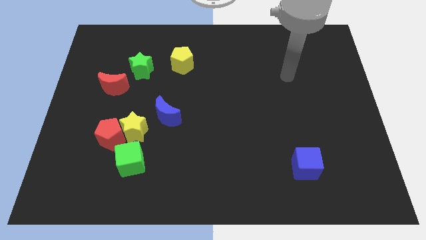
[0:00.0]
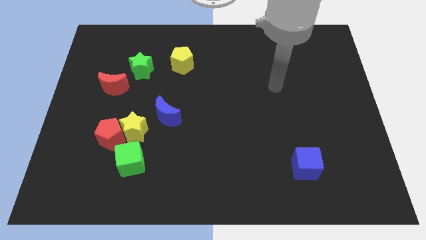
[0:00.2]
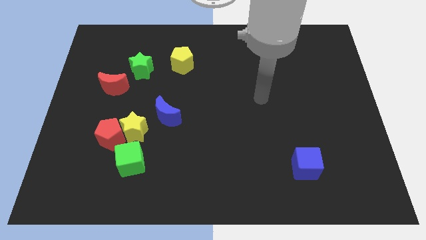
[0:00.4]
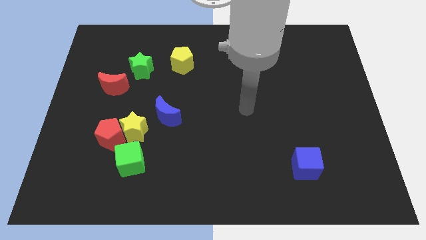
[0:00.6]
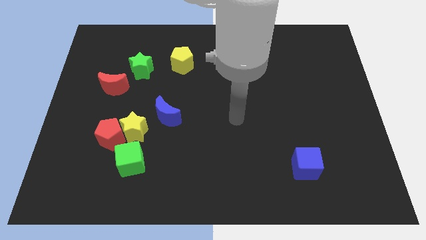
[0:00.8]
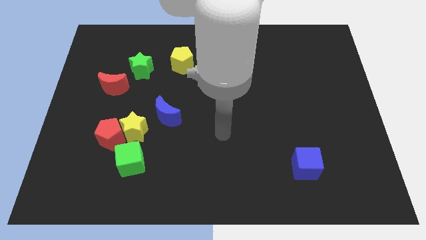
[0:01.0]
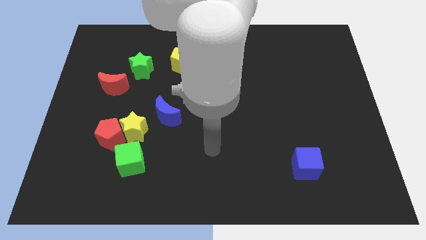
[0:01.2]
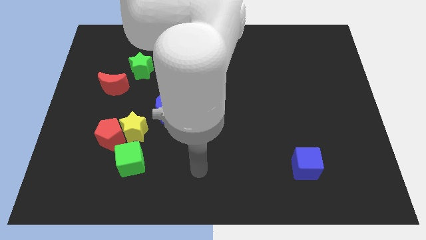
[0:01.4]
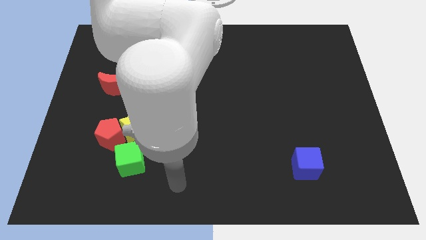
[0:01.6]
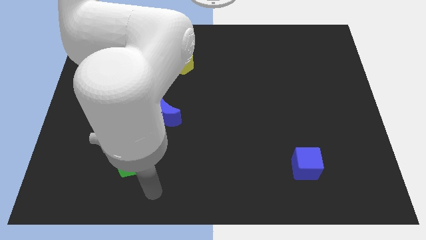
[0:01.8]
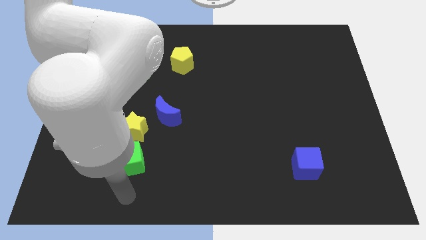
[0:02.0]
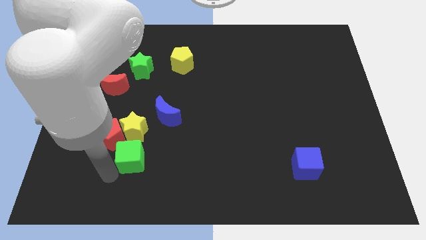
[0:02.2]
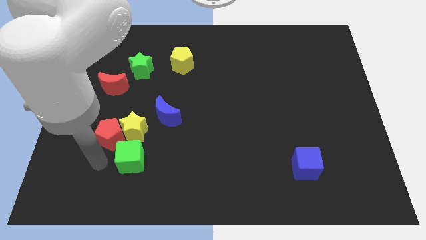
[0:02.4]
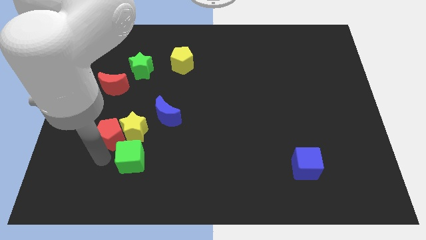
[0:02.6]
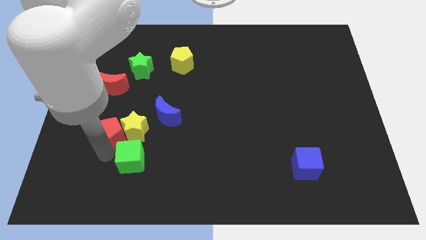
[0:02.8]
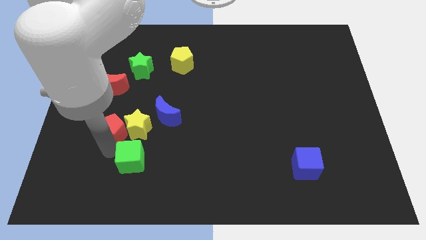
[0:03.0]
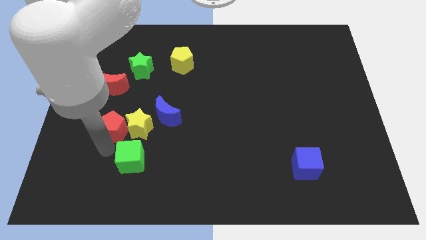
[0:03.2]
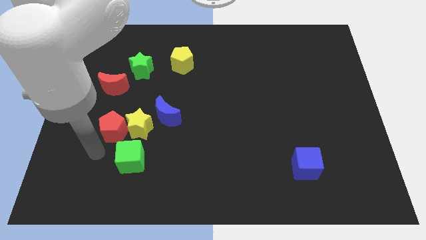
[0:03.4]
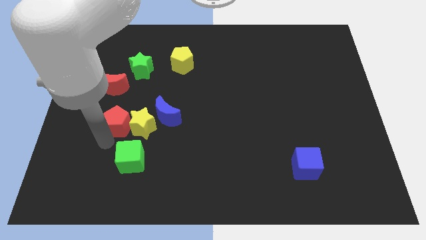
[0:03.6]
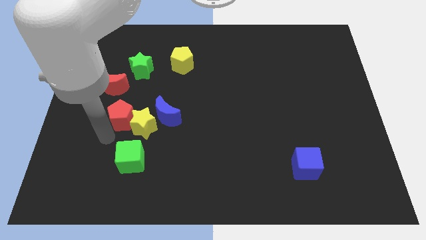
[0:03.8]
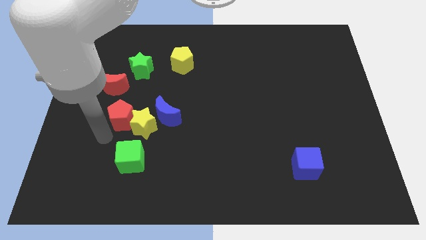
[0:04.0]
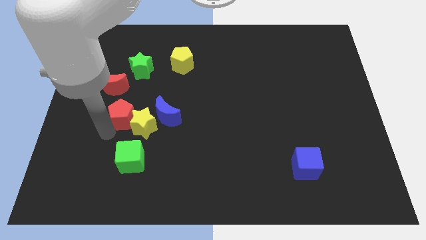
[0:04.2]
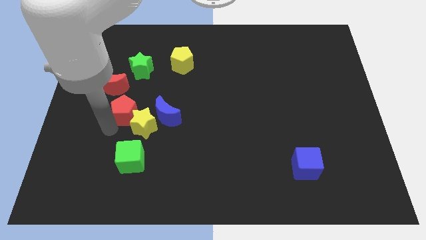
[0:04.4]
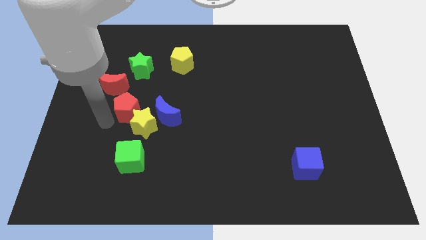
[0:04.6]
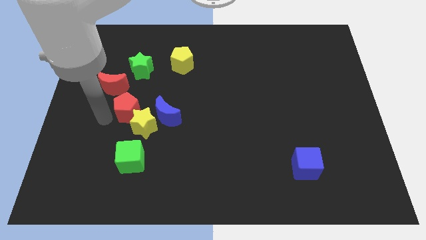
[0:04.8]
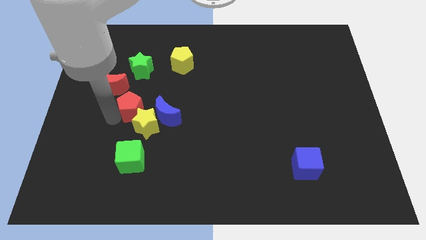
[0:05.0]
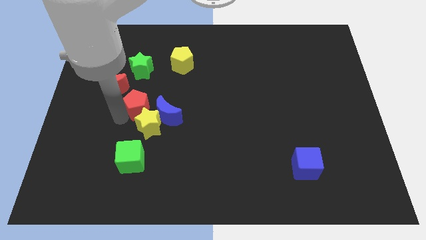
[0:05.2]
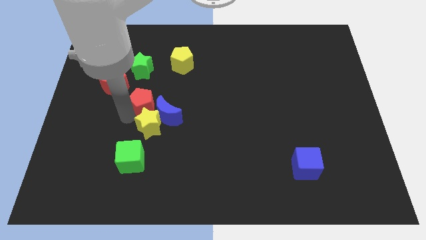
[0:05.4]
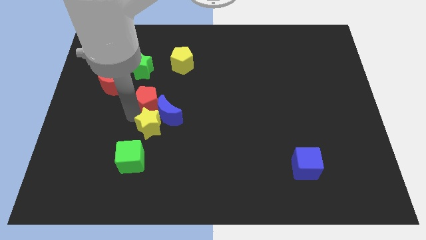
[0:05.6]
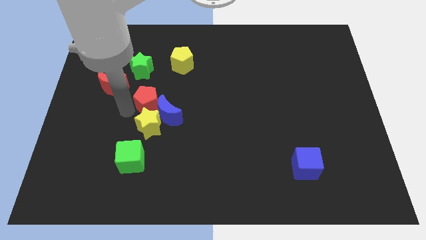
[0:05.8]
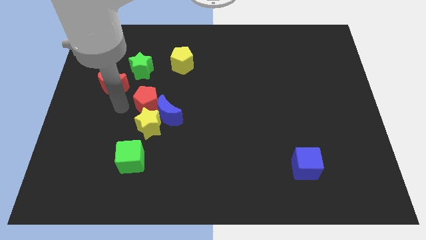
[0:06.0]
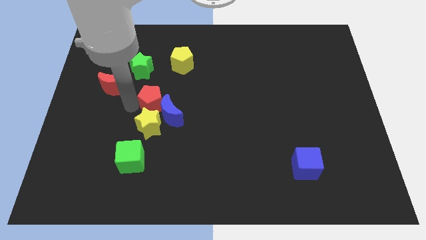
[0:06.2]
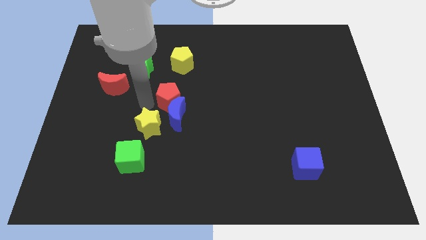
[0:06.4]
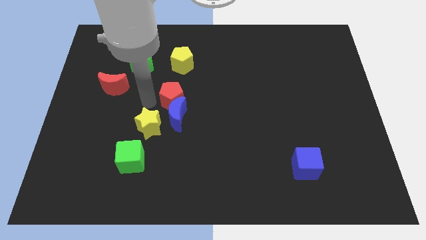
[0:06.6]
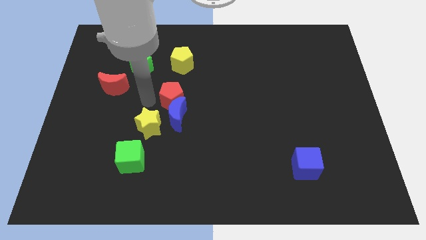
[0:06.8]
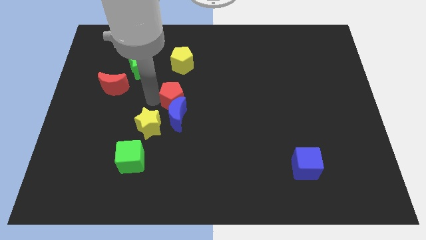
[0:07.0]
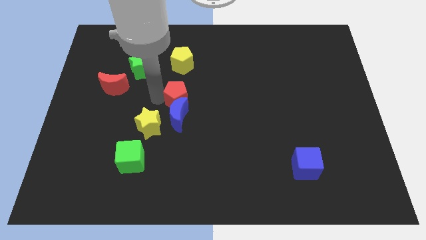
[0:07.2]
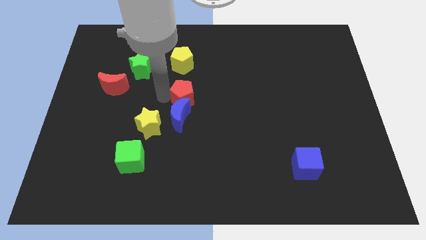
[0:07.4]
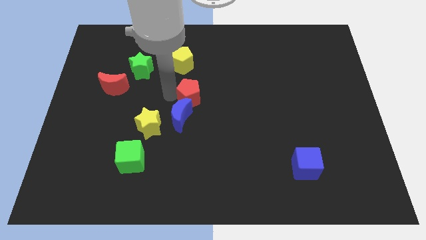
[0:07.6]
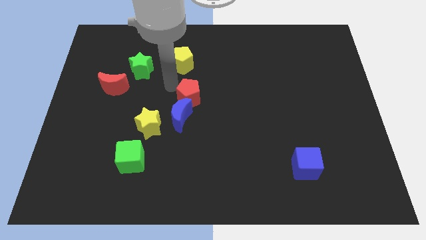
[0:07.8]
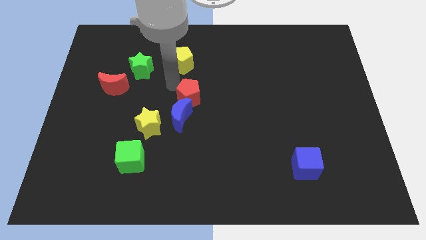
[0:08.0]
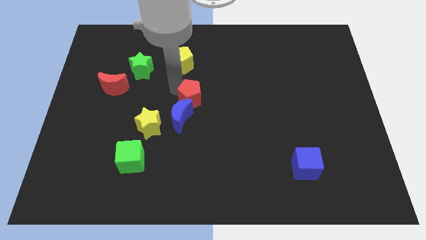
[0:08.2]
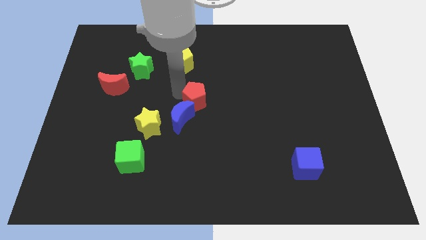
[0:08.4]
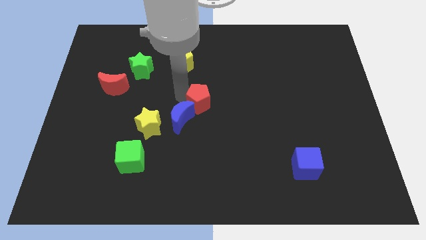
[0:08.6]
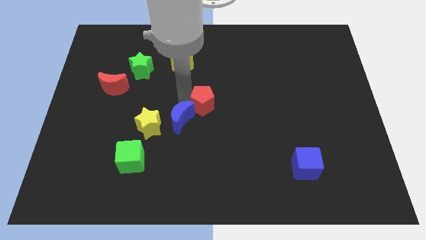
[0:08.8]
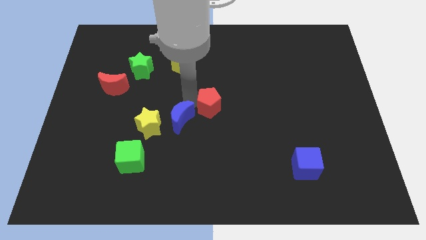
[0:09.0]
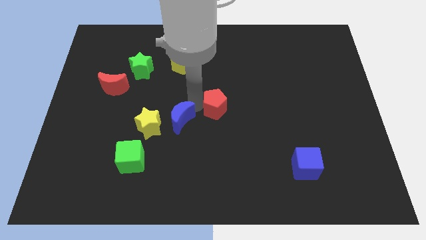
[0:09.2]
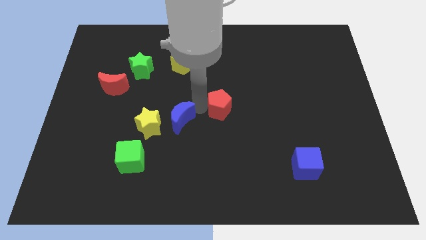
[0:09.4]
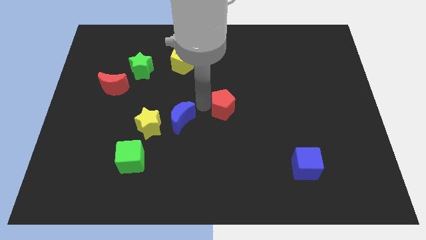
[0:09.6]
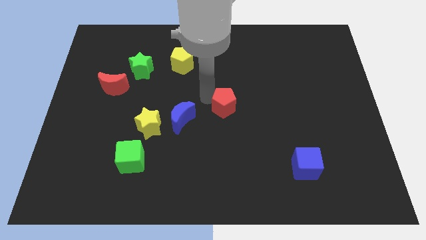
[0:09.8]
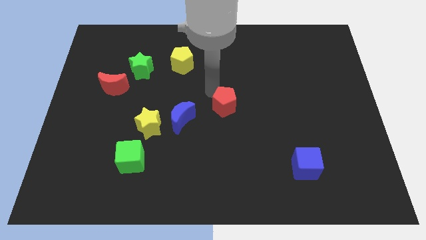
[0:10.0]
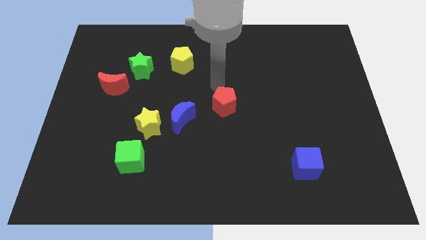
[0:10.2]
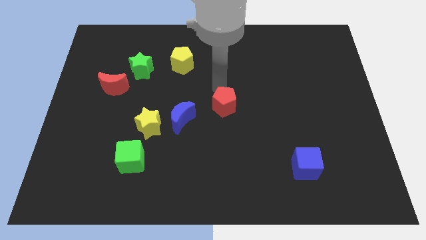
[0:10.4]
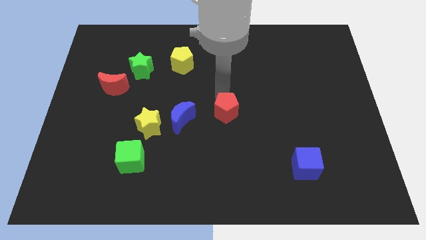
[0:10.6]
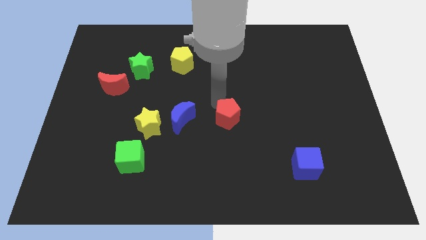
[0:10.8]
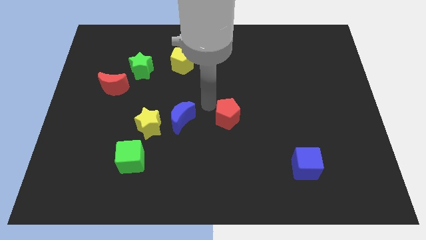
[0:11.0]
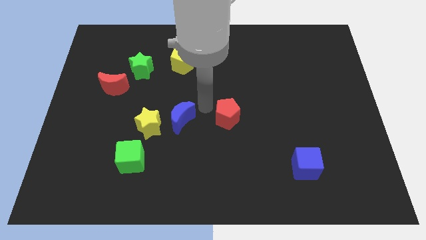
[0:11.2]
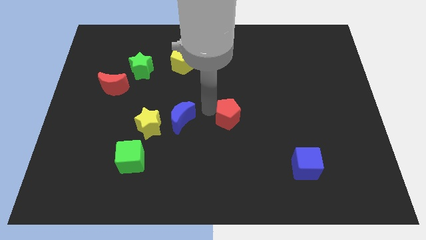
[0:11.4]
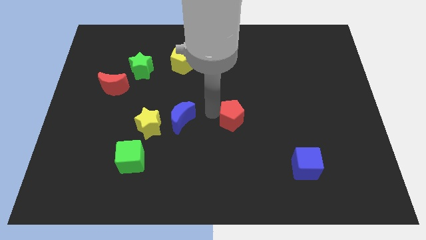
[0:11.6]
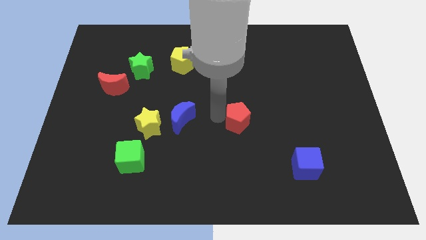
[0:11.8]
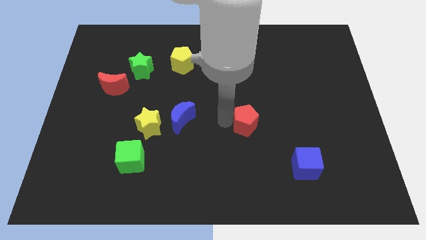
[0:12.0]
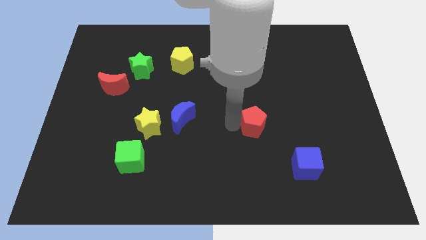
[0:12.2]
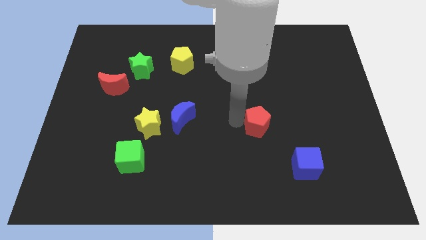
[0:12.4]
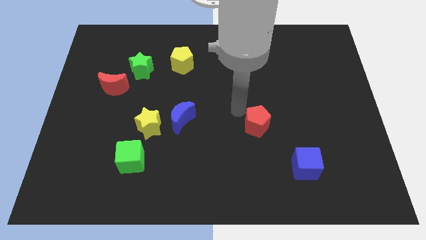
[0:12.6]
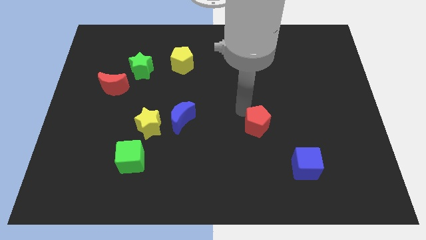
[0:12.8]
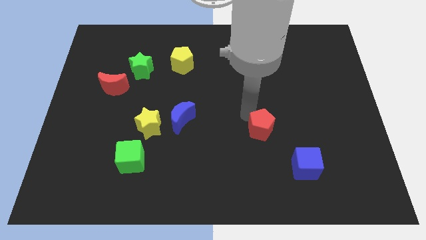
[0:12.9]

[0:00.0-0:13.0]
move the red pentagon to the top left side of the blue cube

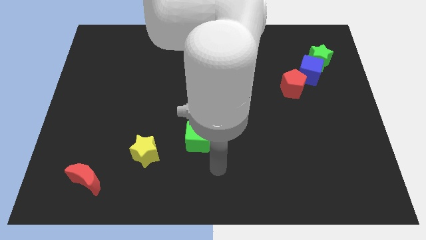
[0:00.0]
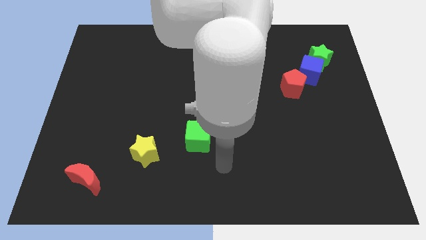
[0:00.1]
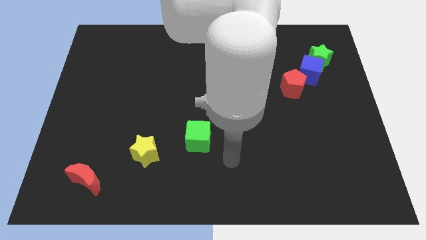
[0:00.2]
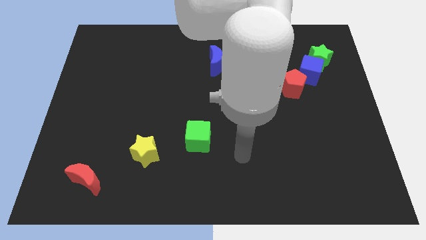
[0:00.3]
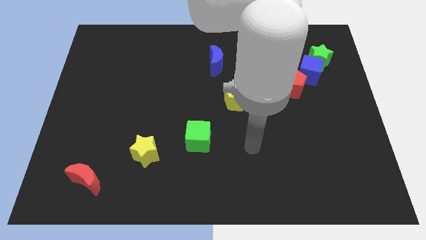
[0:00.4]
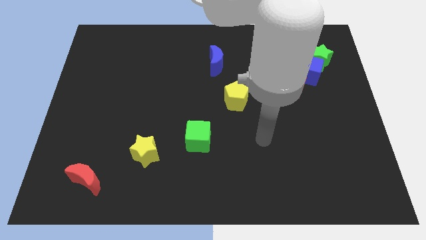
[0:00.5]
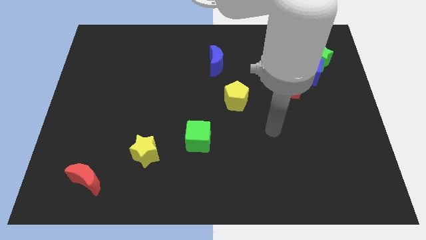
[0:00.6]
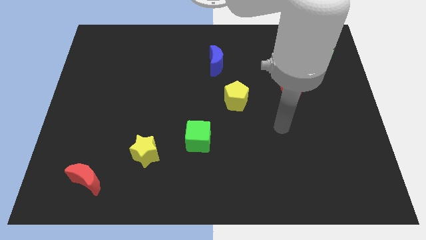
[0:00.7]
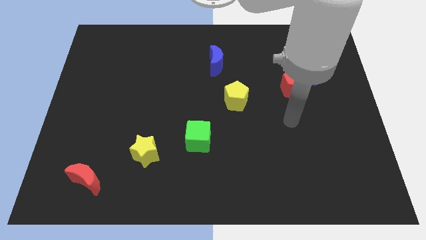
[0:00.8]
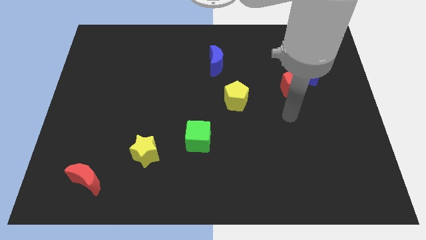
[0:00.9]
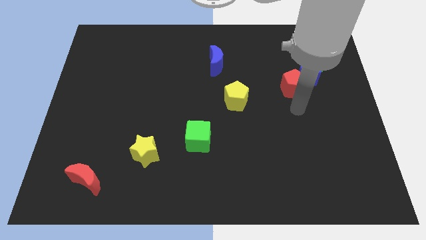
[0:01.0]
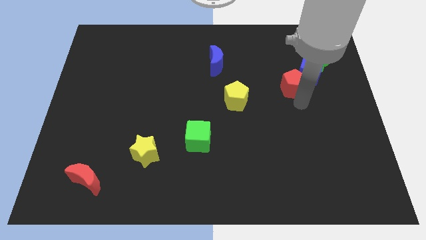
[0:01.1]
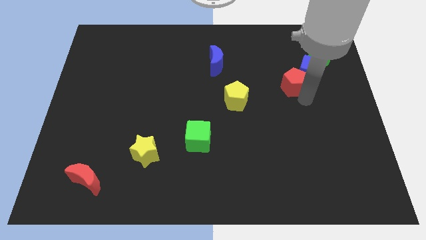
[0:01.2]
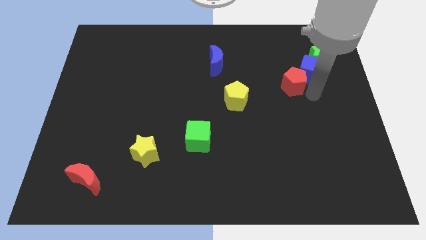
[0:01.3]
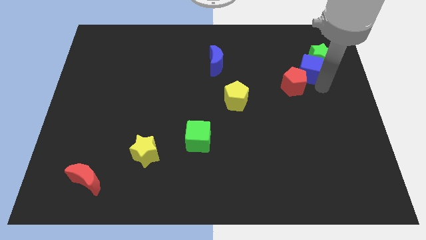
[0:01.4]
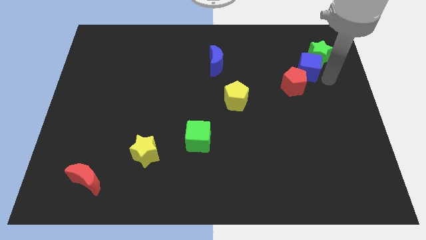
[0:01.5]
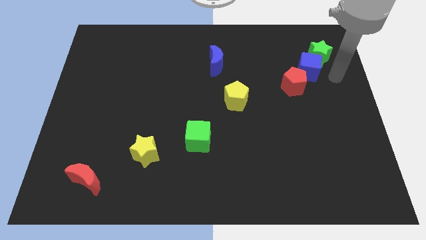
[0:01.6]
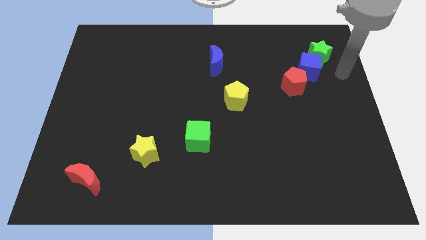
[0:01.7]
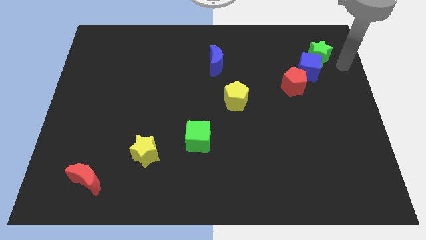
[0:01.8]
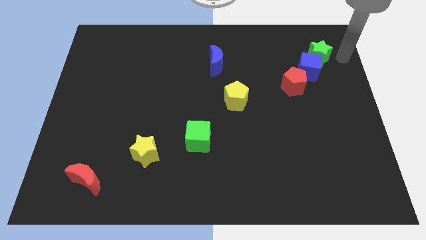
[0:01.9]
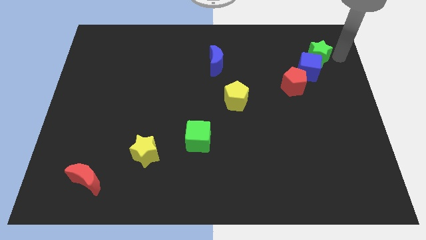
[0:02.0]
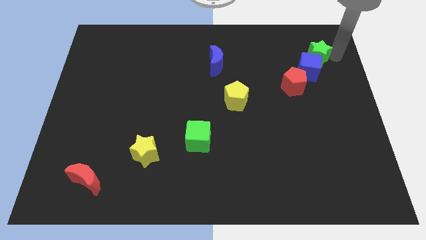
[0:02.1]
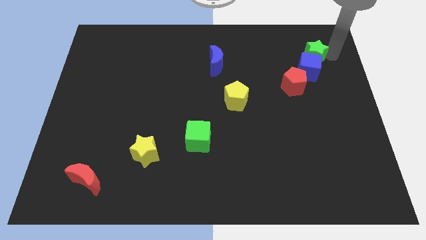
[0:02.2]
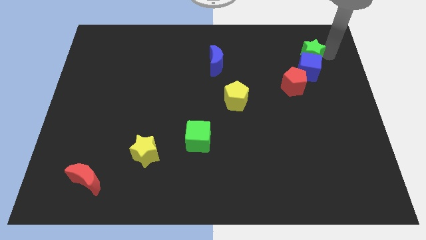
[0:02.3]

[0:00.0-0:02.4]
slide the green star to the top left side of the blue cube
